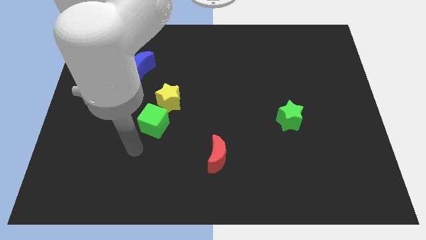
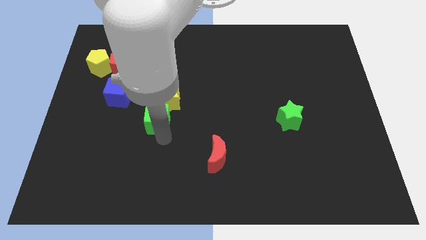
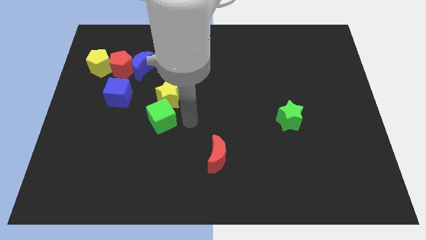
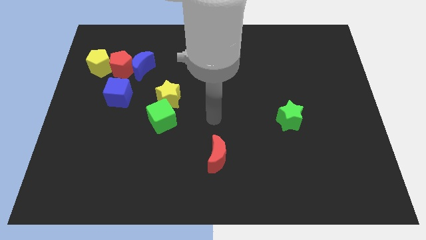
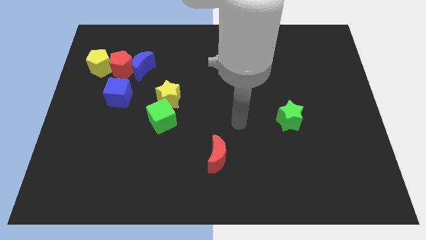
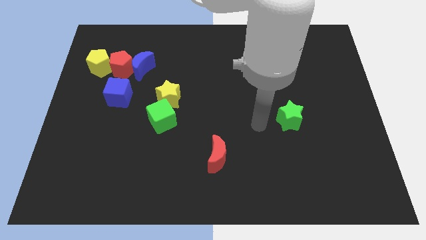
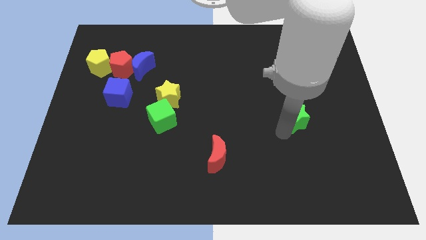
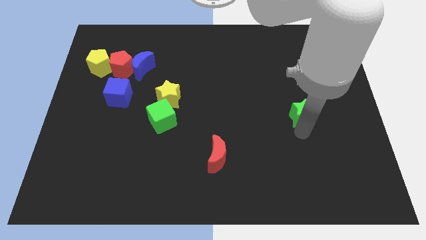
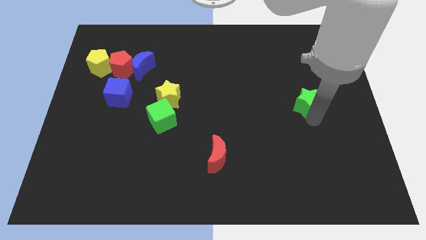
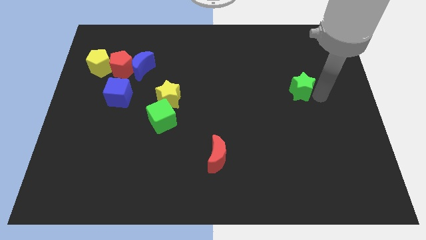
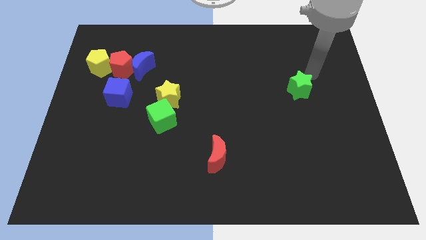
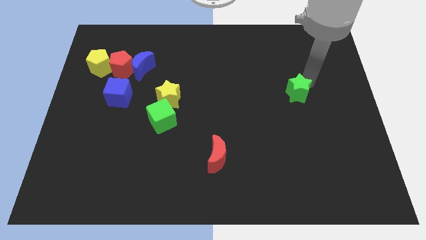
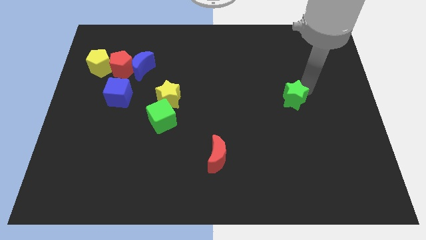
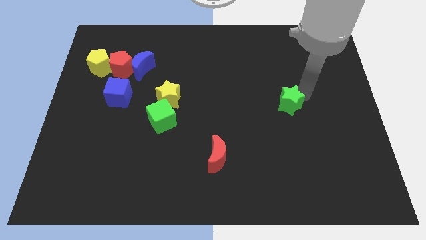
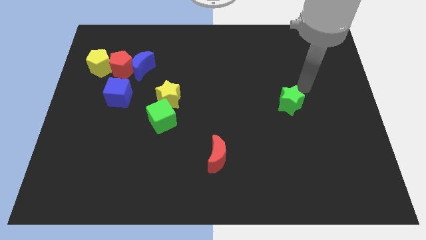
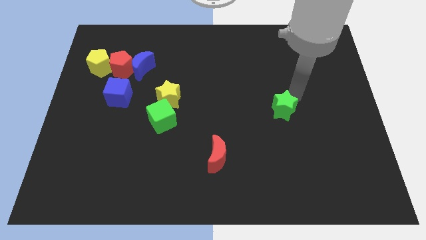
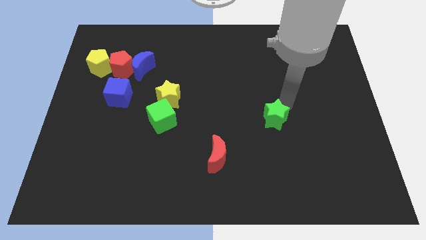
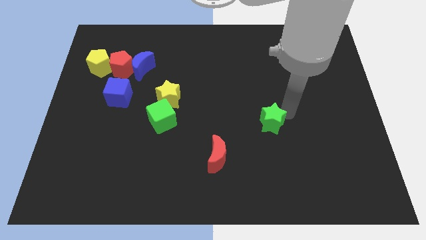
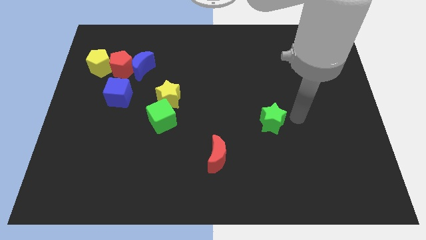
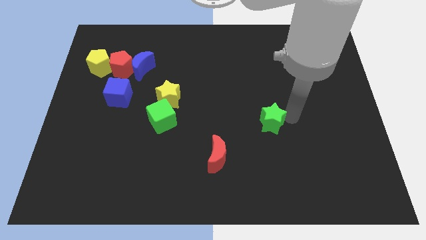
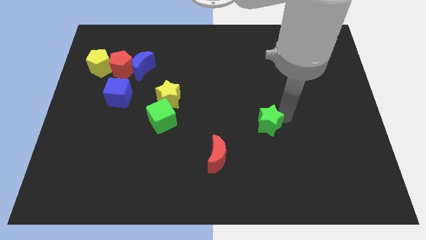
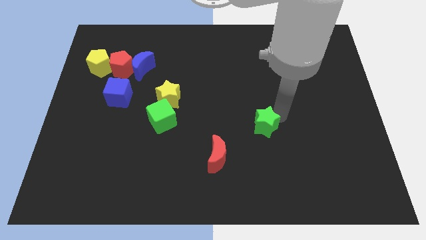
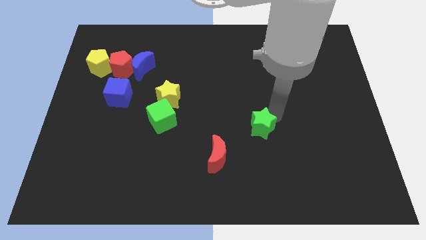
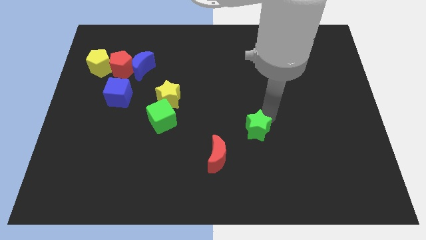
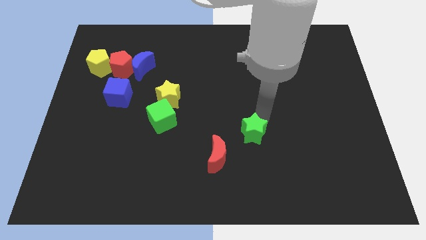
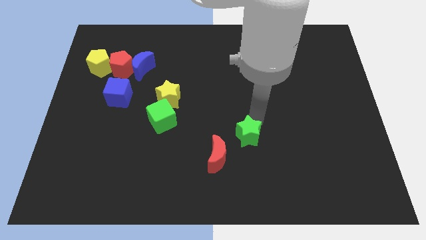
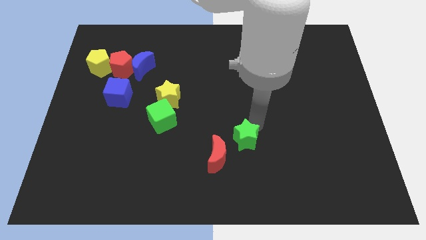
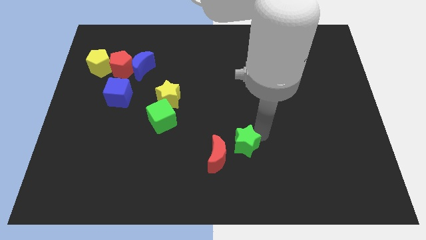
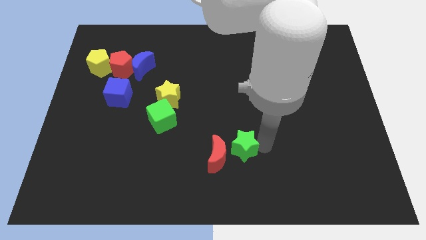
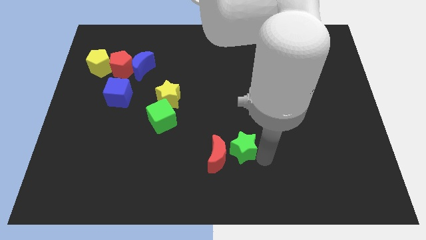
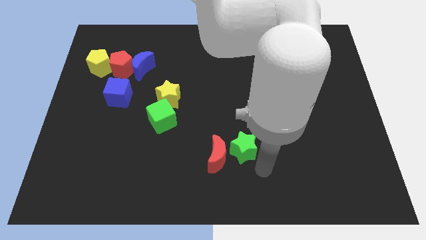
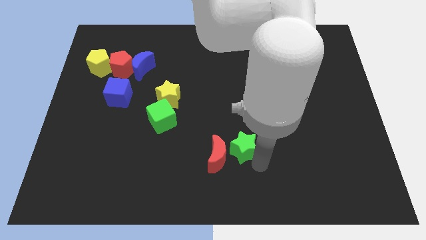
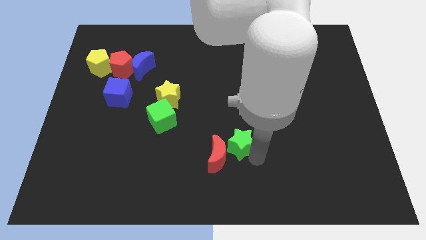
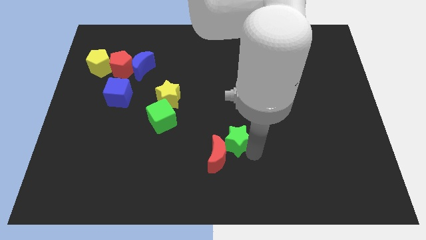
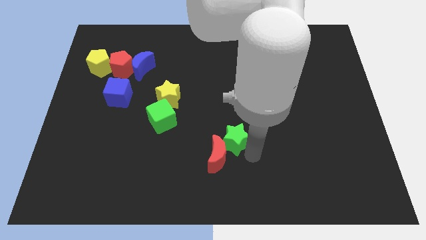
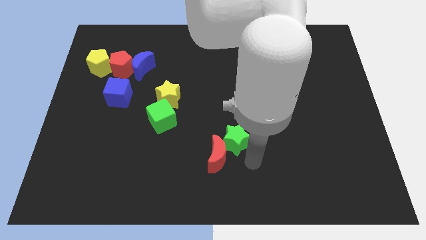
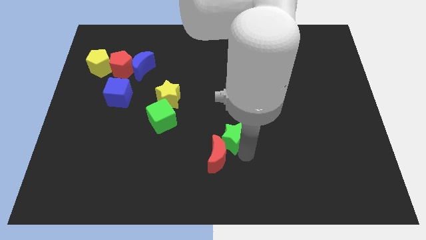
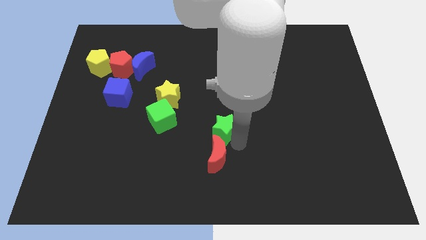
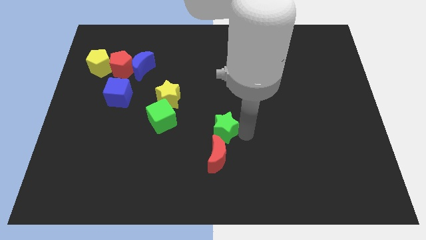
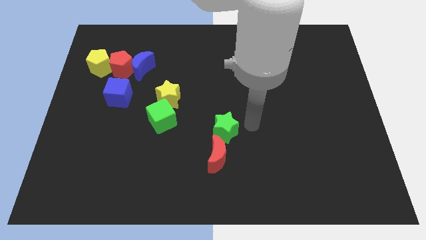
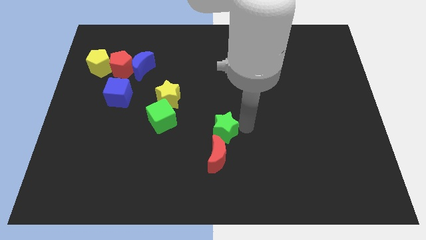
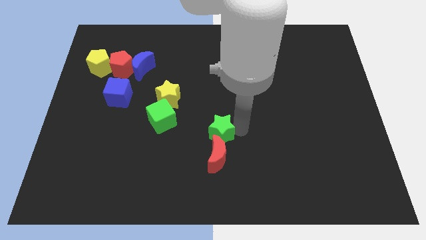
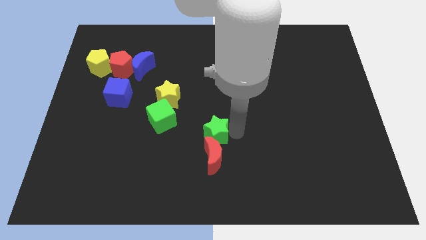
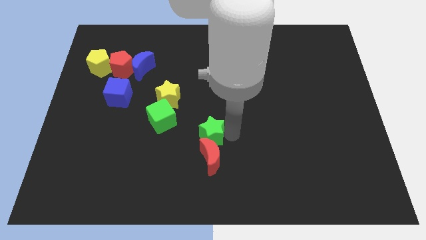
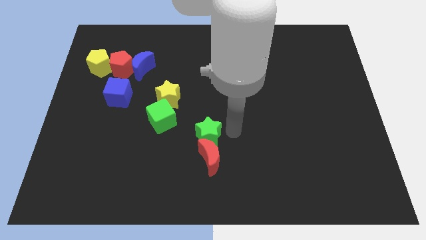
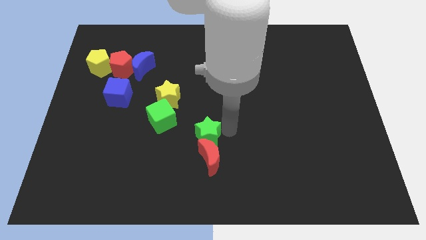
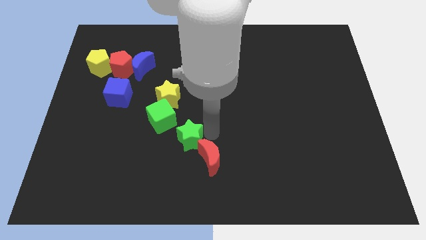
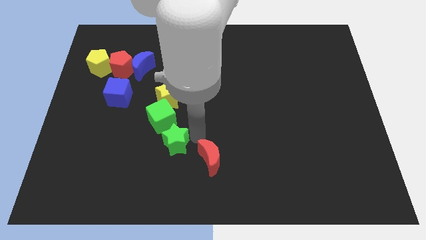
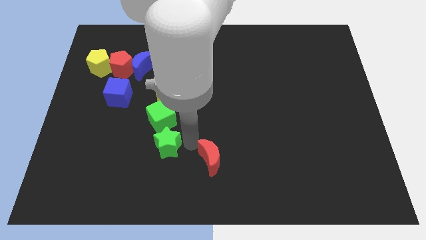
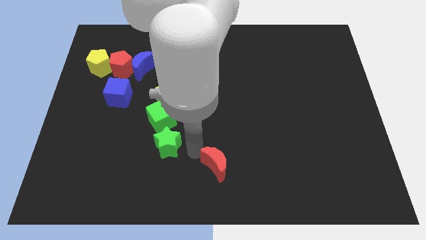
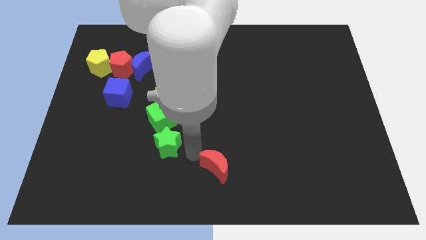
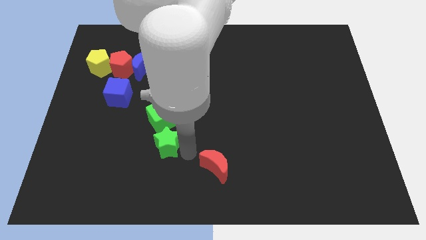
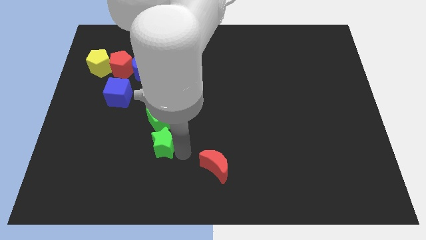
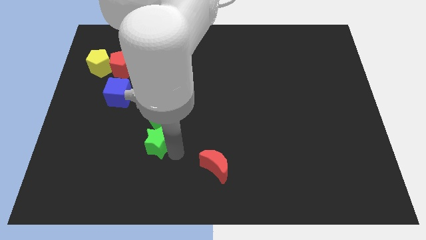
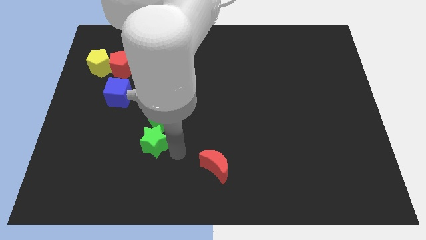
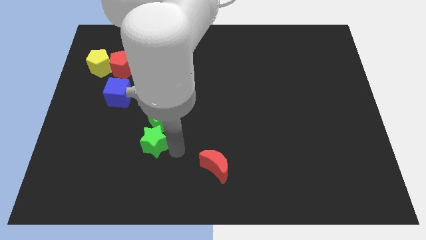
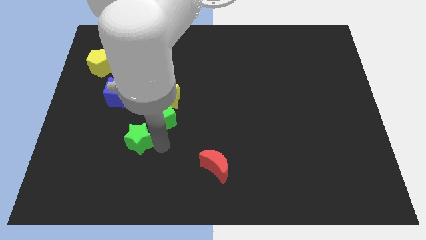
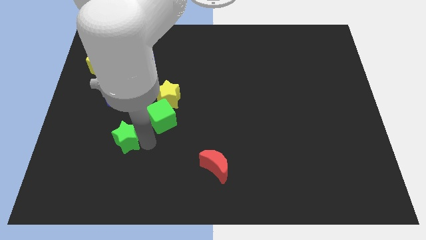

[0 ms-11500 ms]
slide the green star below the blue cube

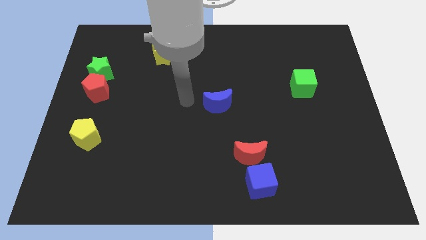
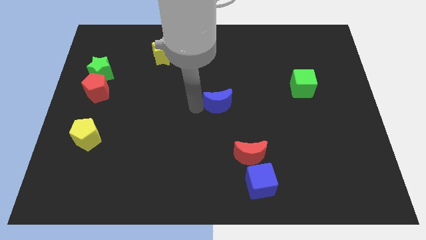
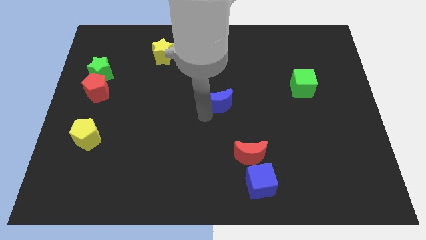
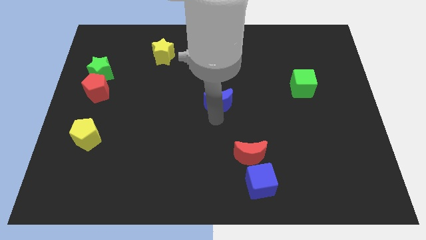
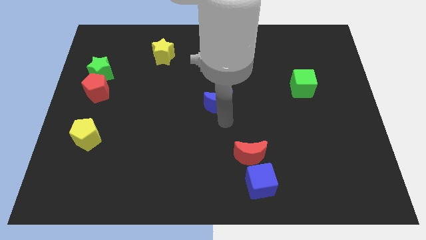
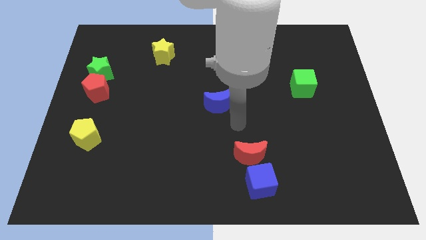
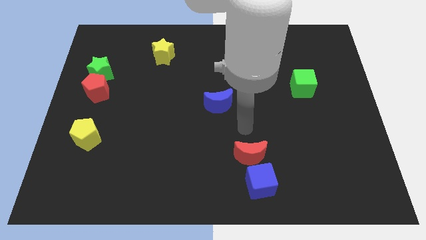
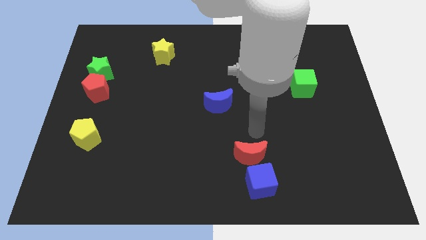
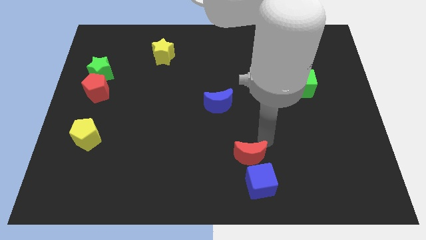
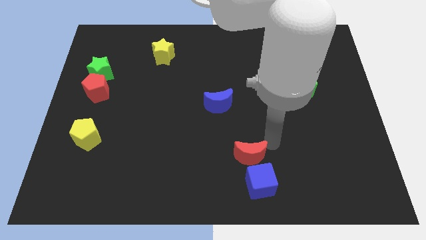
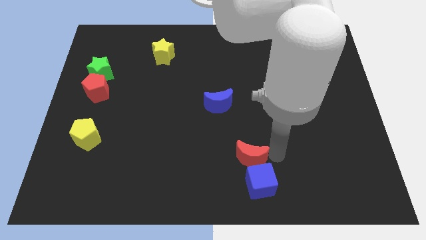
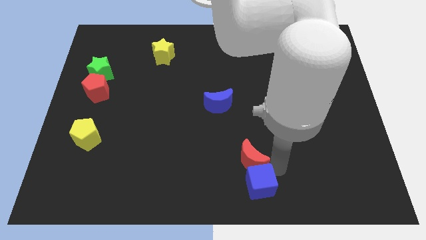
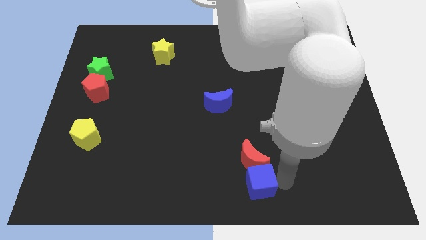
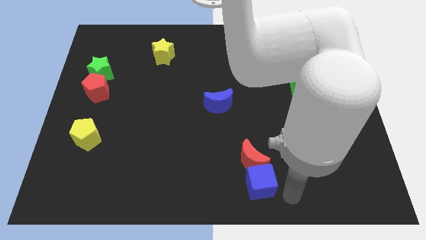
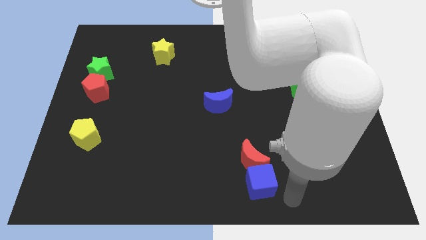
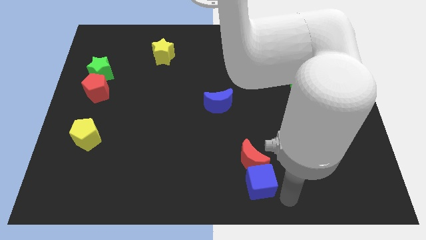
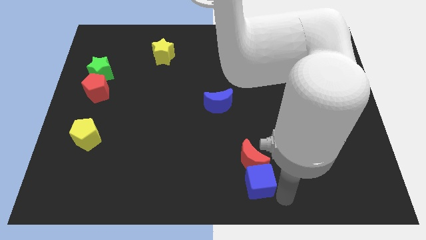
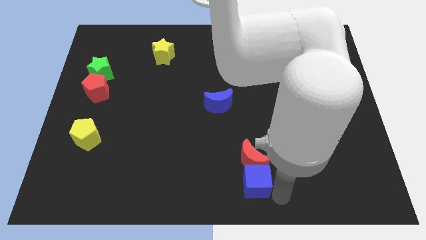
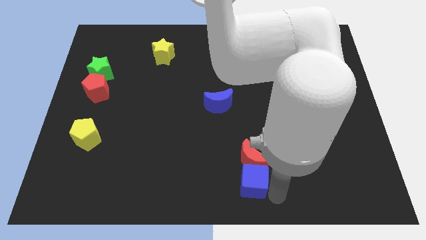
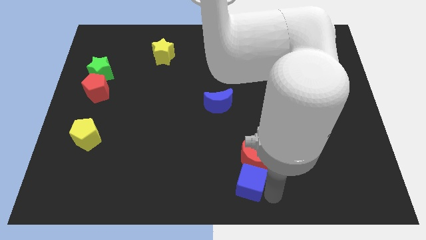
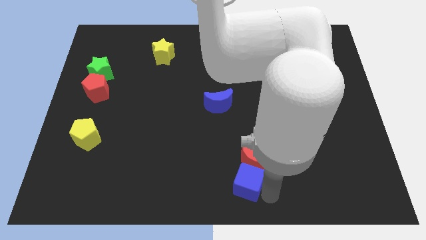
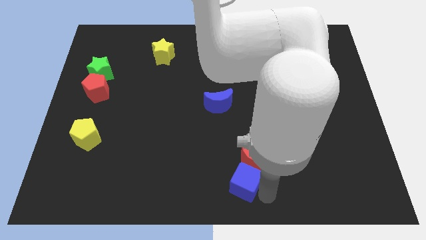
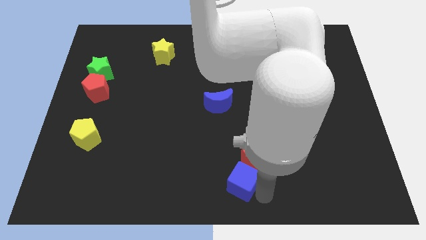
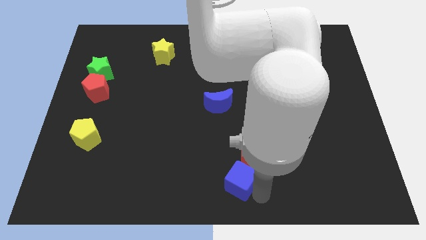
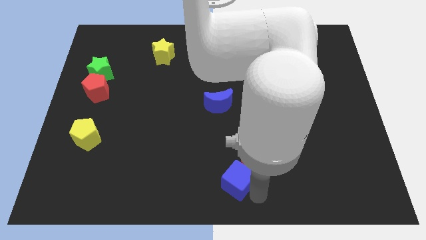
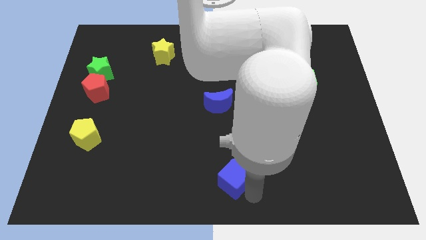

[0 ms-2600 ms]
slide the blue cube to the left side of the red moon
